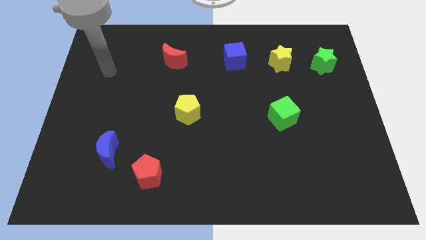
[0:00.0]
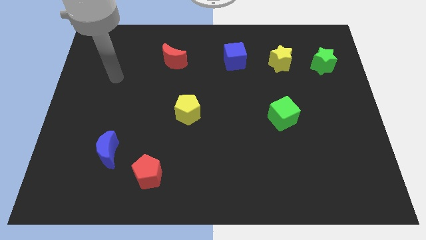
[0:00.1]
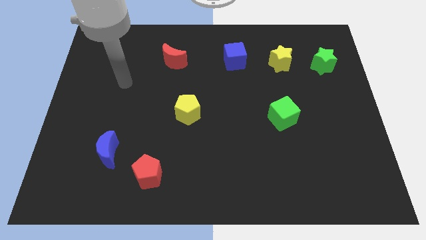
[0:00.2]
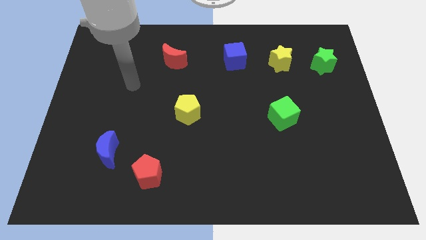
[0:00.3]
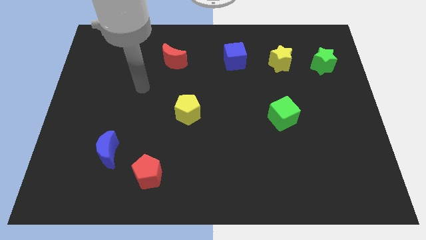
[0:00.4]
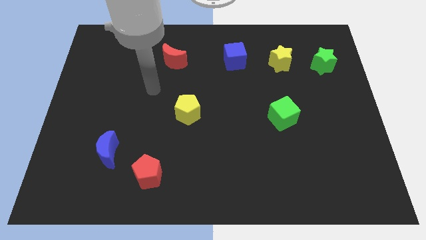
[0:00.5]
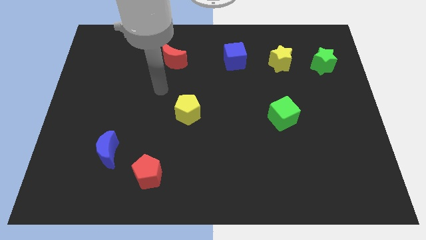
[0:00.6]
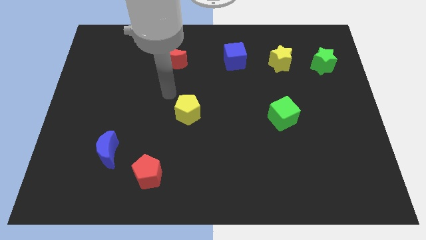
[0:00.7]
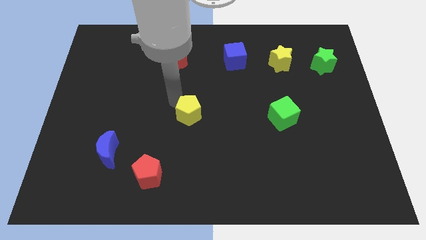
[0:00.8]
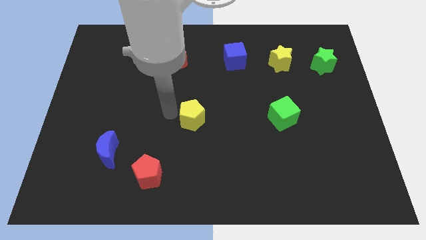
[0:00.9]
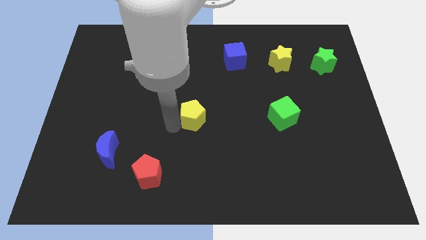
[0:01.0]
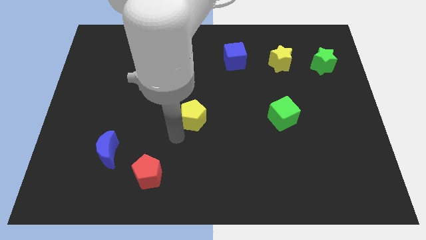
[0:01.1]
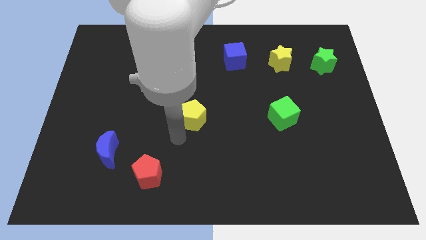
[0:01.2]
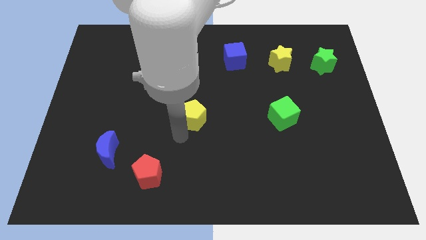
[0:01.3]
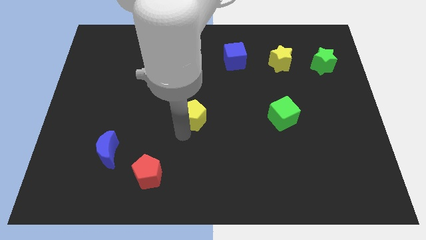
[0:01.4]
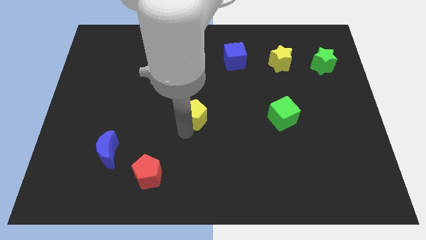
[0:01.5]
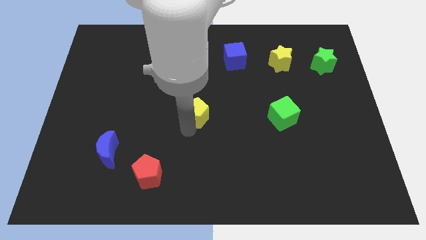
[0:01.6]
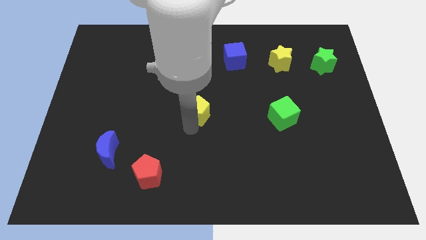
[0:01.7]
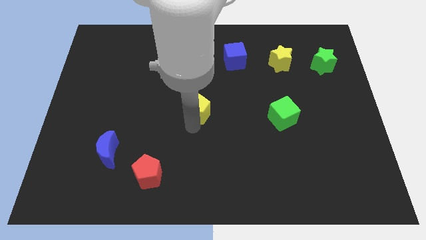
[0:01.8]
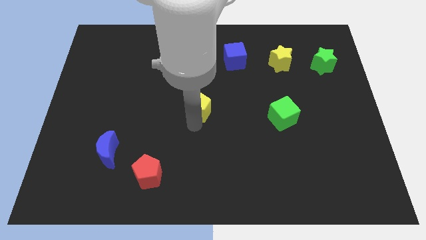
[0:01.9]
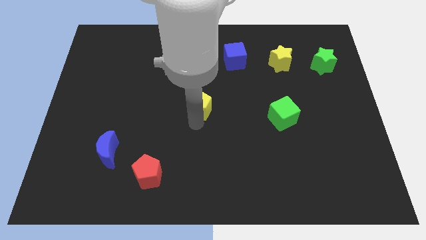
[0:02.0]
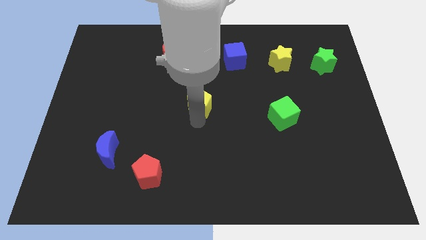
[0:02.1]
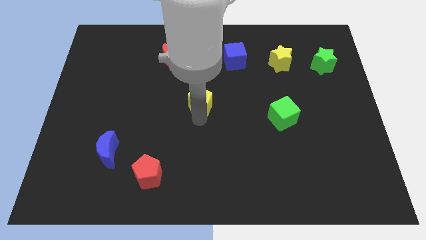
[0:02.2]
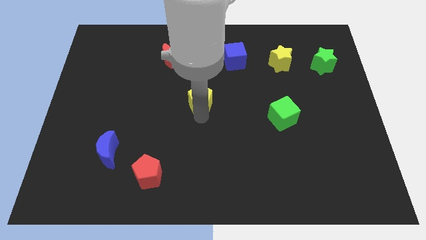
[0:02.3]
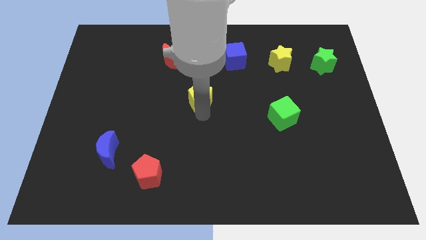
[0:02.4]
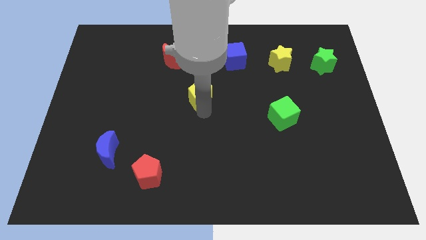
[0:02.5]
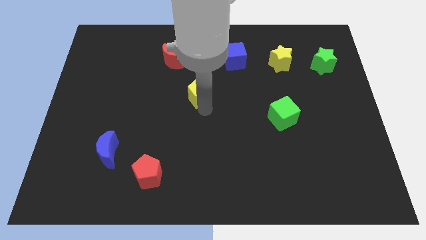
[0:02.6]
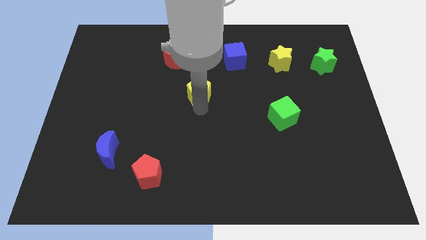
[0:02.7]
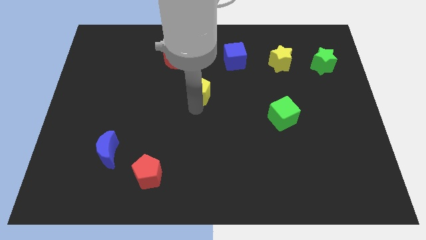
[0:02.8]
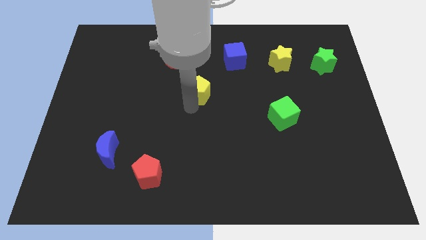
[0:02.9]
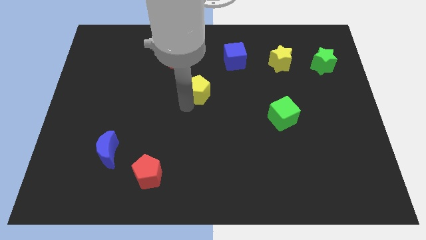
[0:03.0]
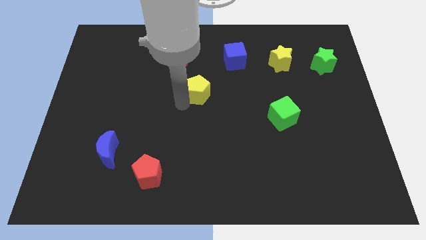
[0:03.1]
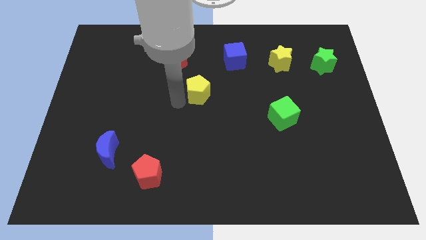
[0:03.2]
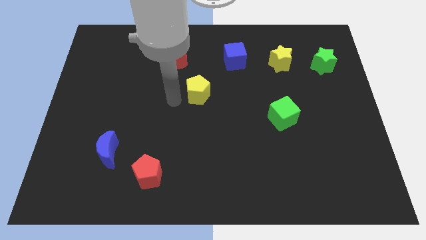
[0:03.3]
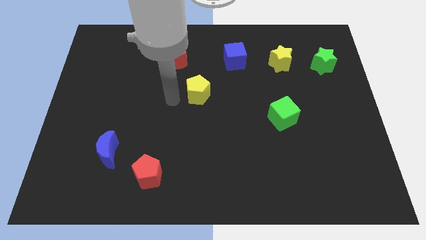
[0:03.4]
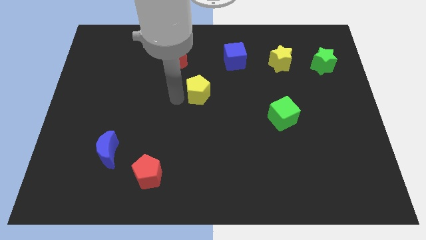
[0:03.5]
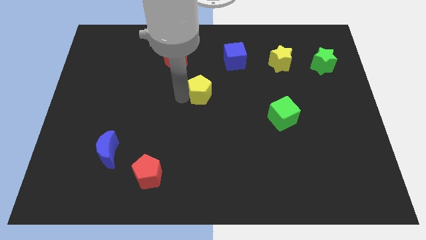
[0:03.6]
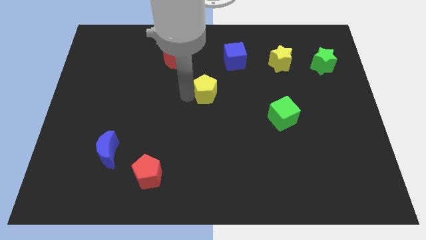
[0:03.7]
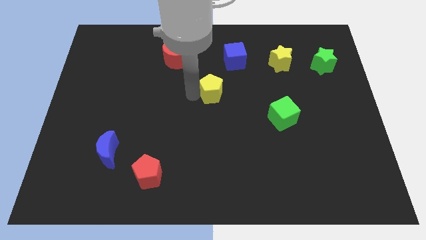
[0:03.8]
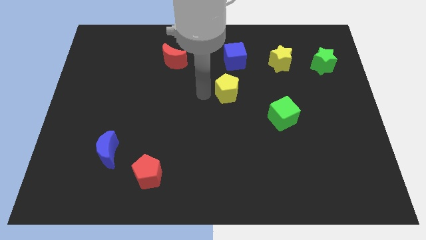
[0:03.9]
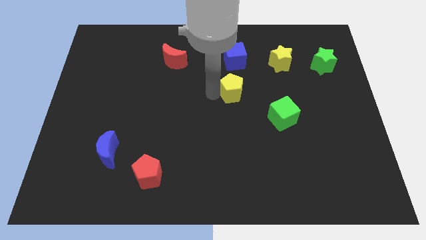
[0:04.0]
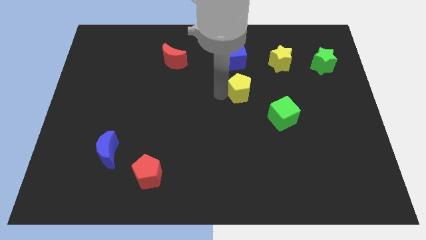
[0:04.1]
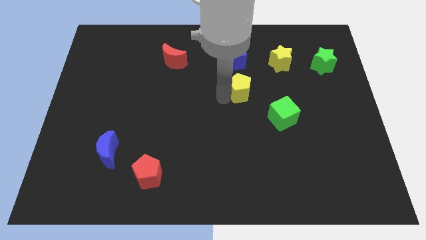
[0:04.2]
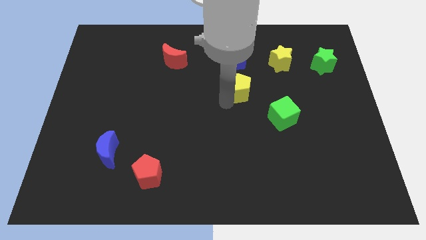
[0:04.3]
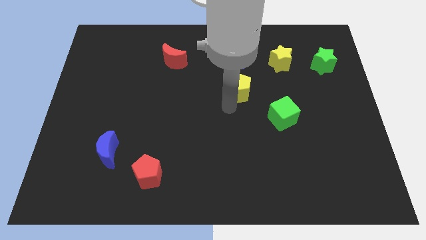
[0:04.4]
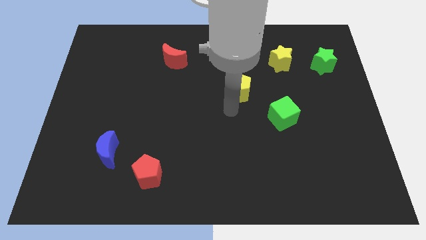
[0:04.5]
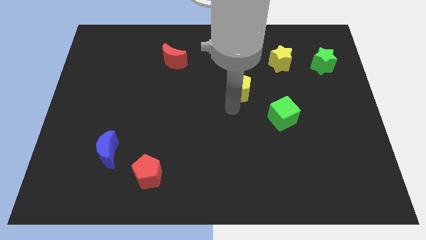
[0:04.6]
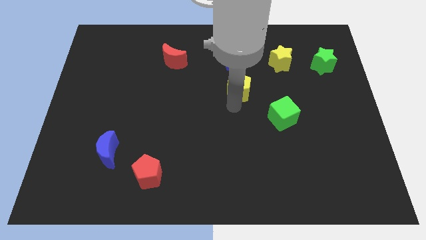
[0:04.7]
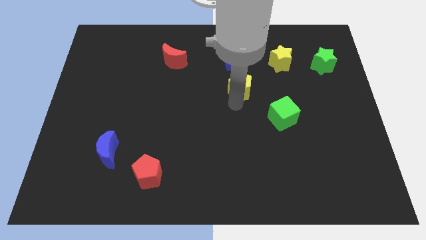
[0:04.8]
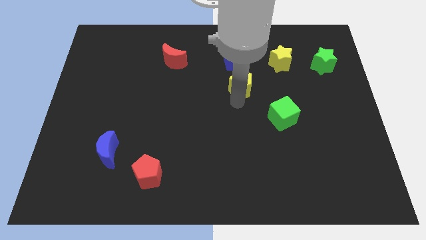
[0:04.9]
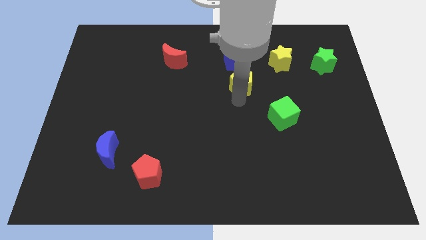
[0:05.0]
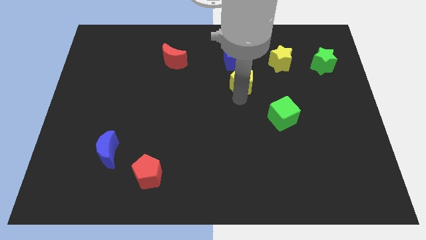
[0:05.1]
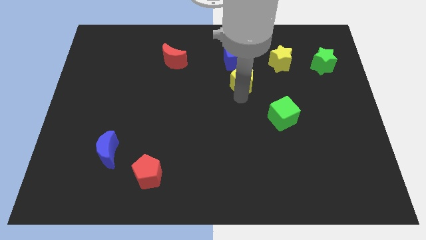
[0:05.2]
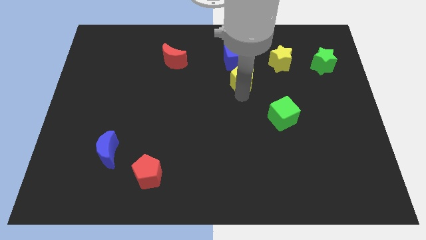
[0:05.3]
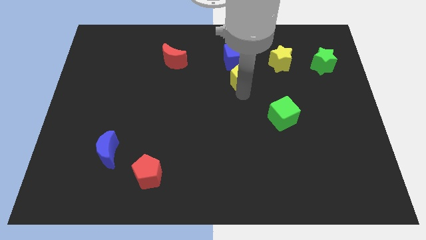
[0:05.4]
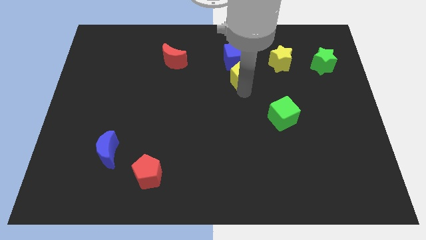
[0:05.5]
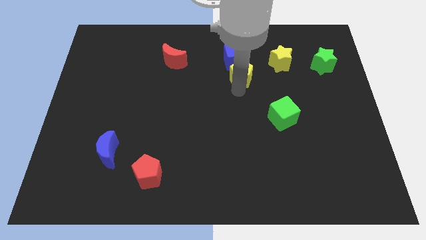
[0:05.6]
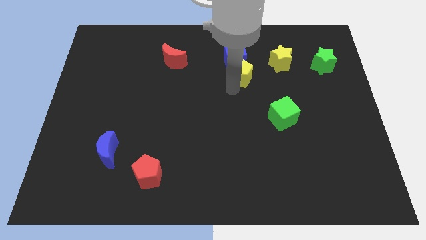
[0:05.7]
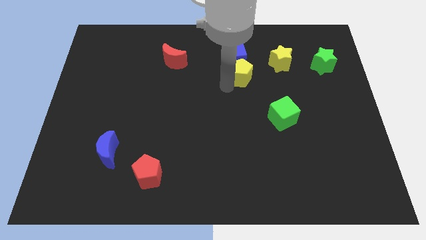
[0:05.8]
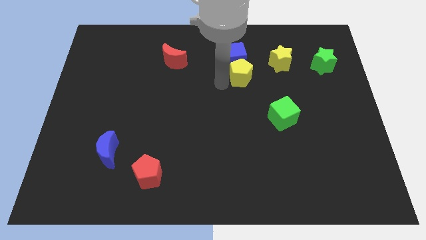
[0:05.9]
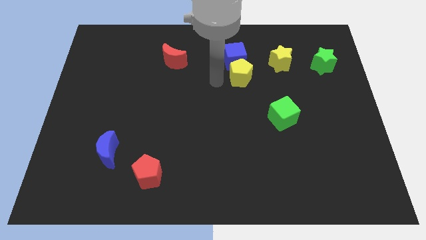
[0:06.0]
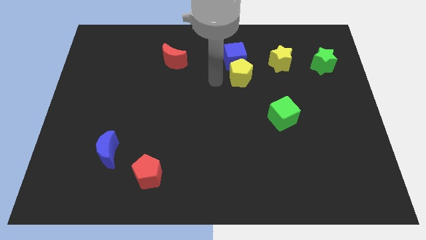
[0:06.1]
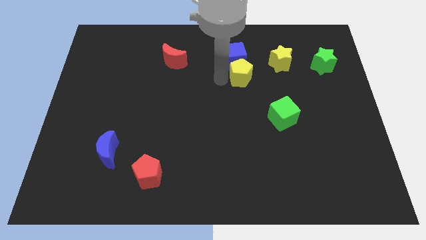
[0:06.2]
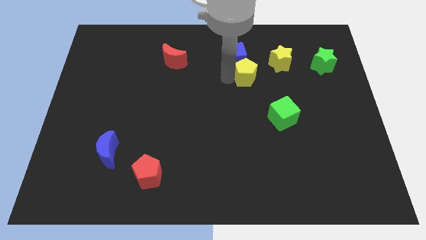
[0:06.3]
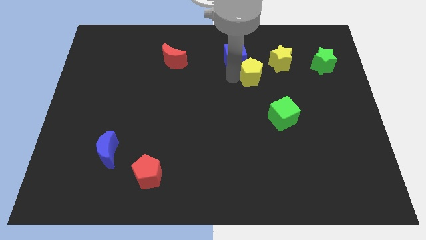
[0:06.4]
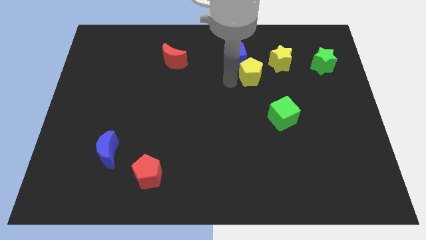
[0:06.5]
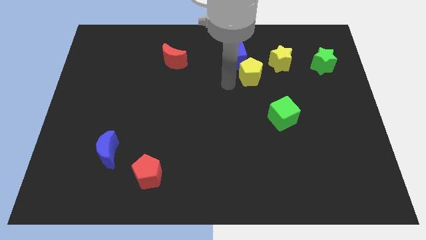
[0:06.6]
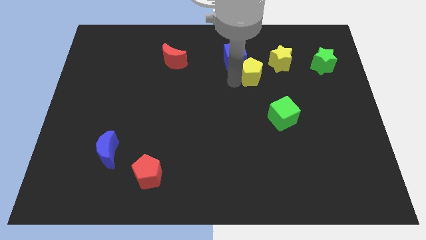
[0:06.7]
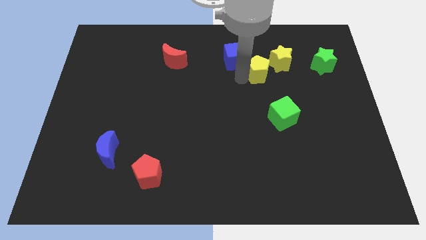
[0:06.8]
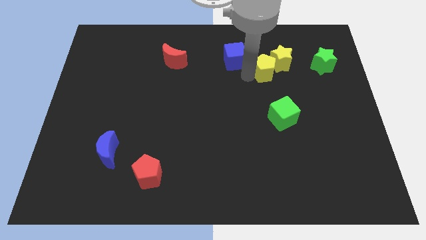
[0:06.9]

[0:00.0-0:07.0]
push the yellow pentagon next to the yellow star
